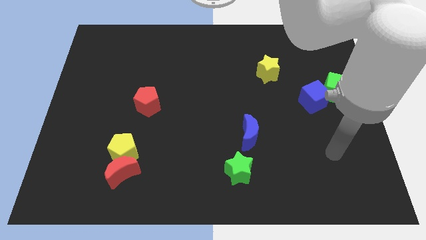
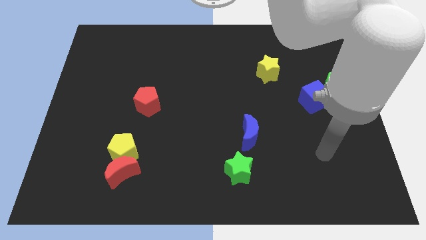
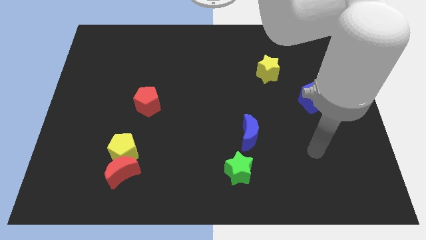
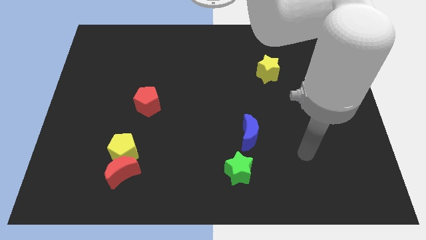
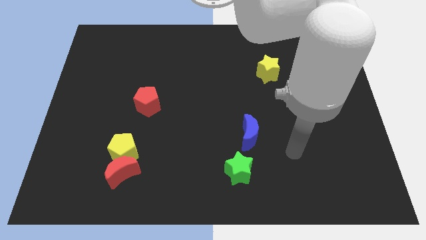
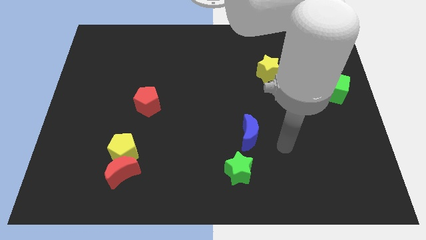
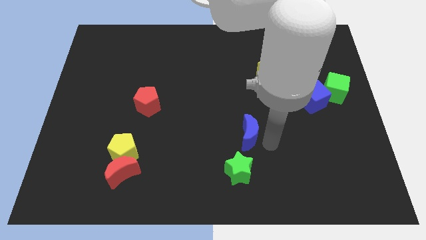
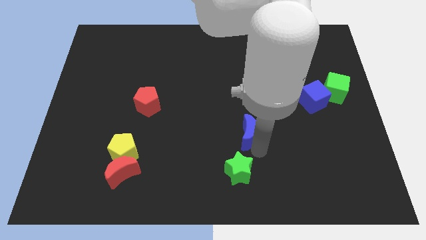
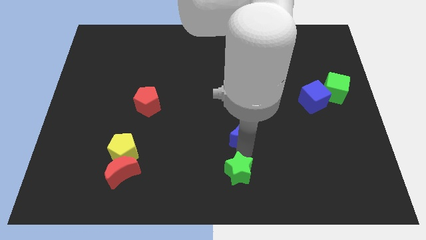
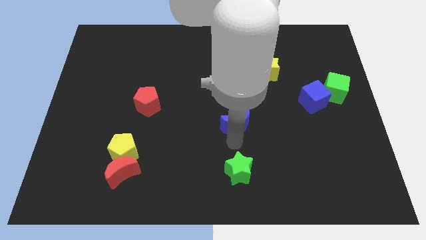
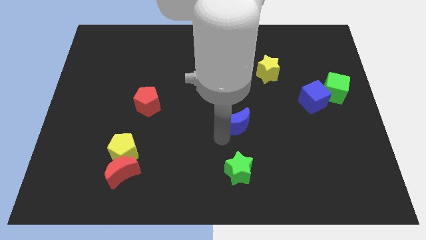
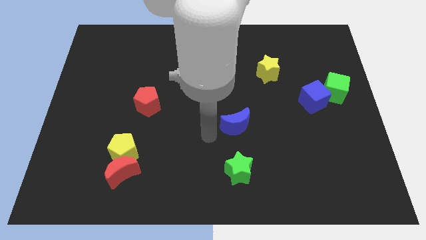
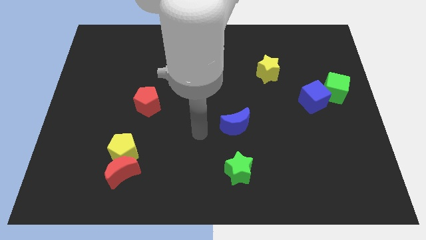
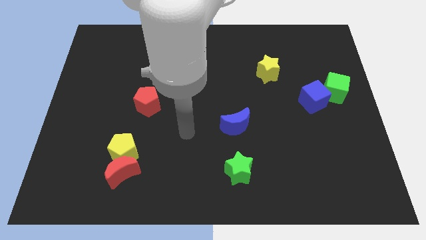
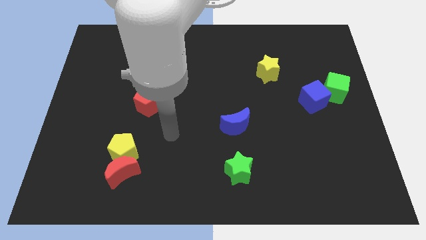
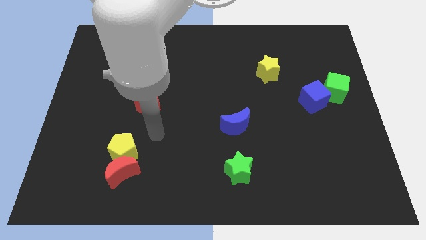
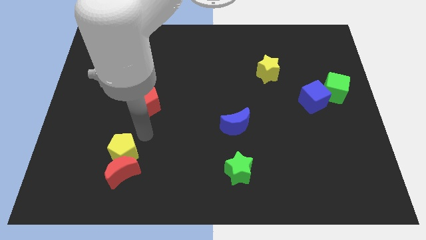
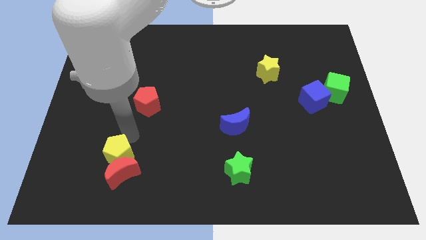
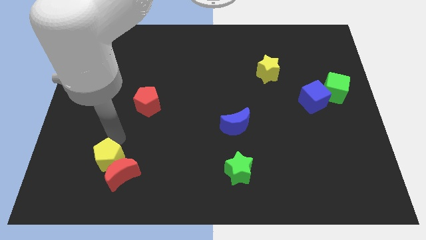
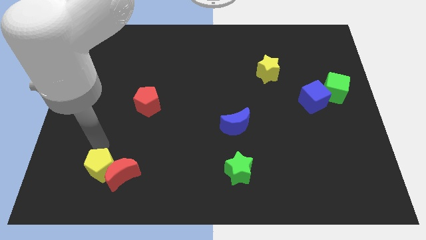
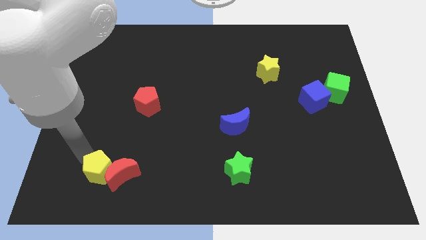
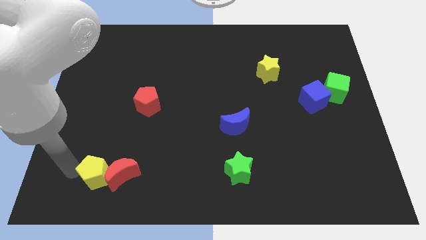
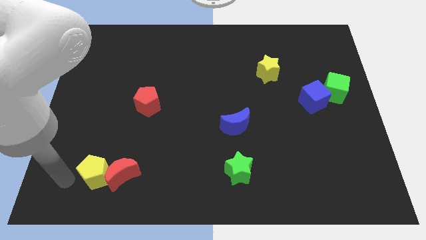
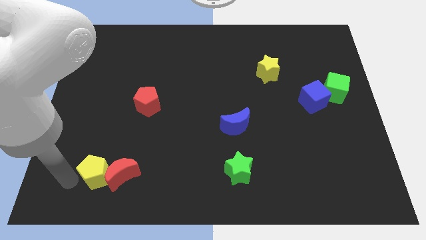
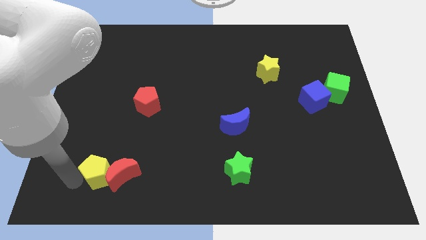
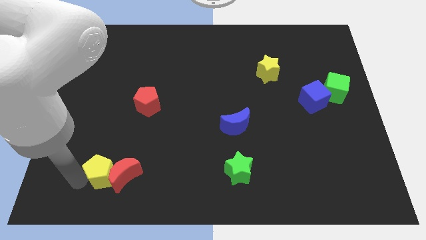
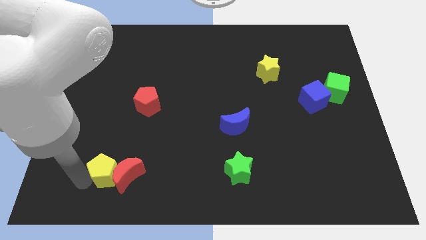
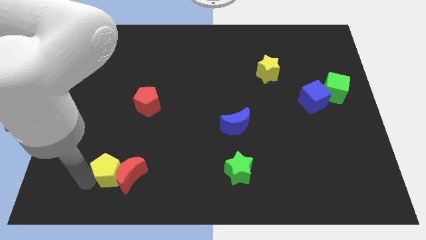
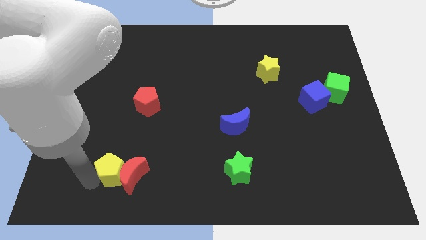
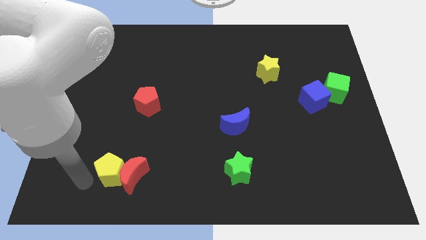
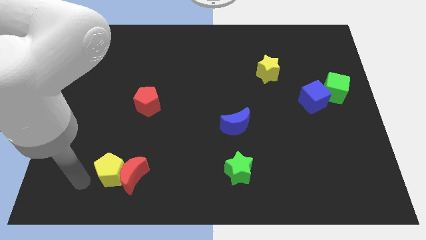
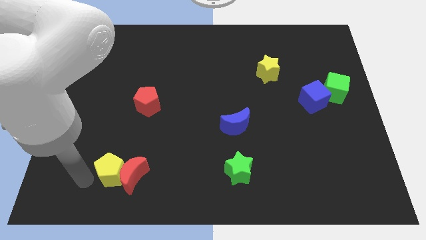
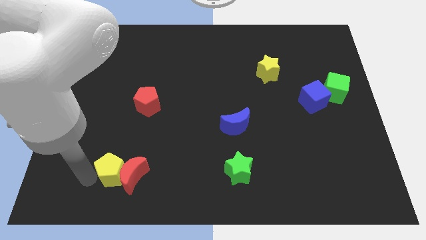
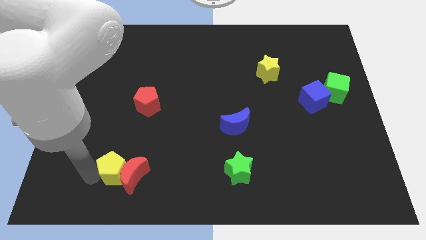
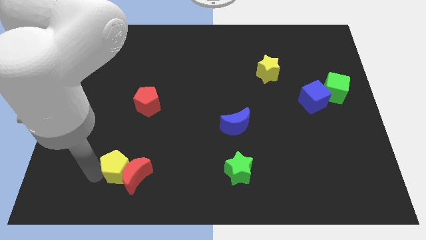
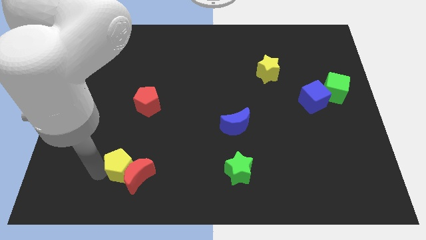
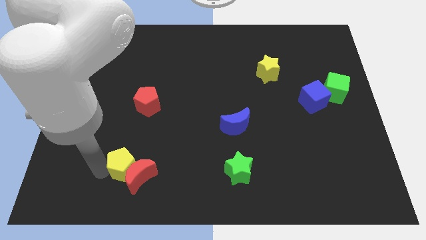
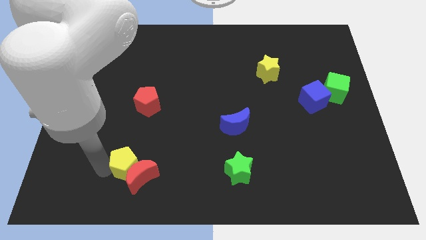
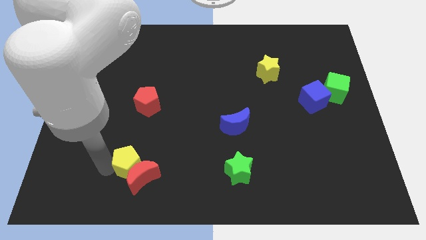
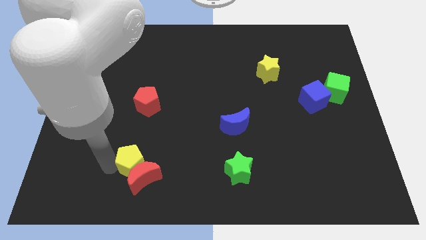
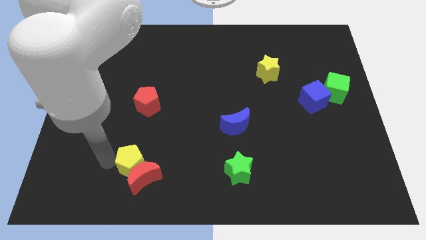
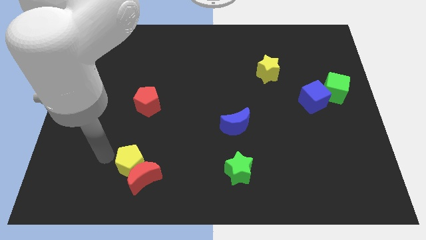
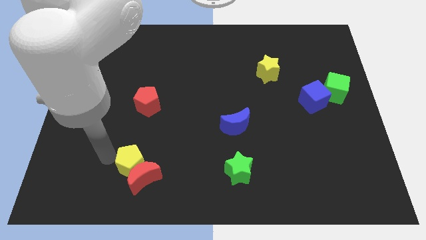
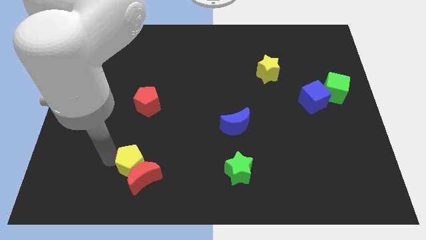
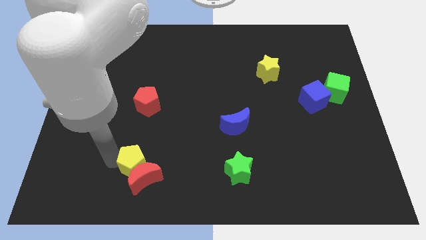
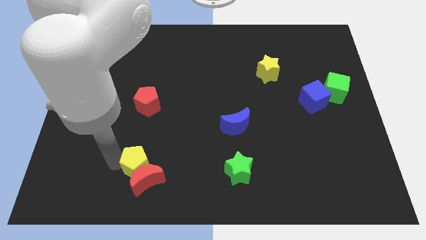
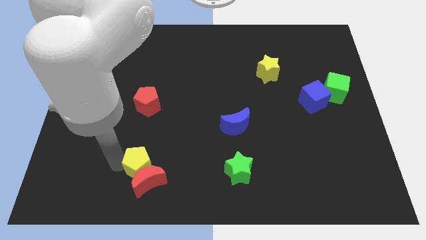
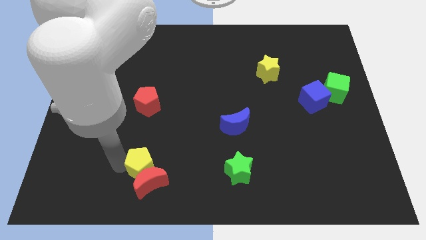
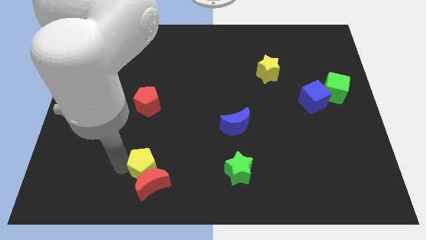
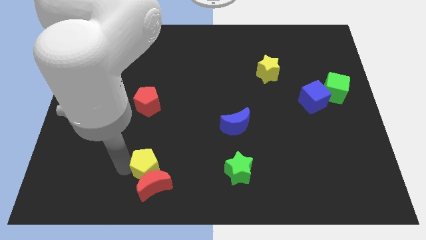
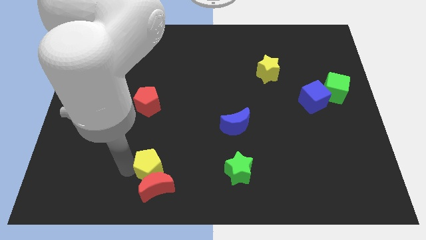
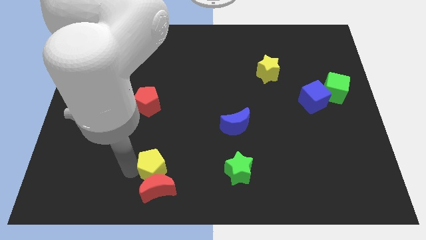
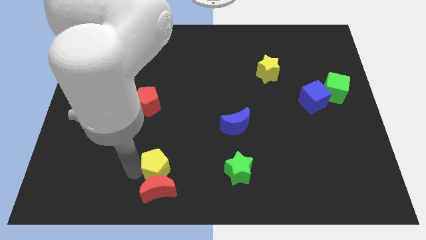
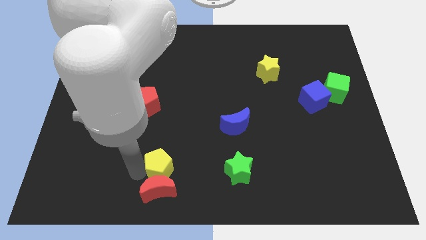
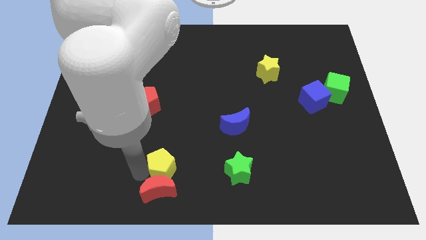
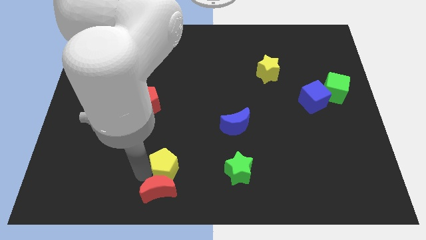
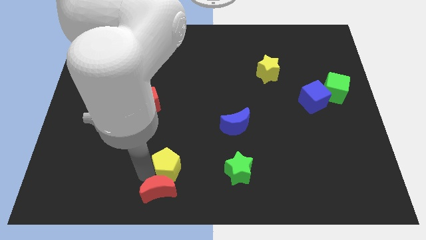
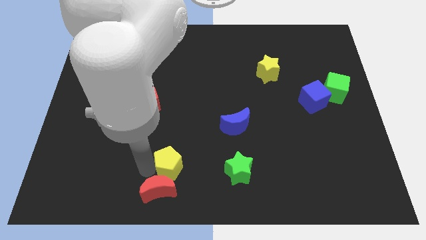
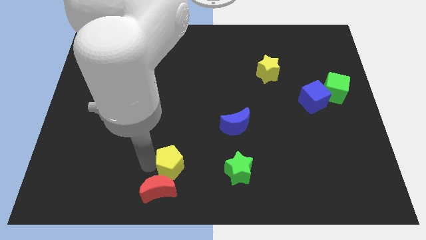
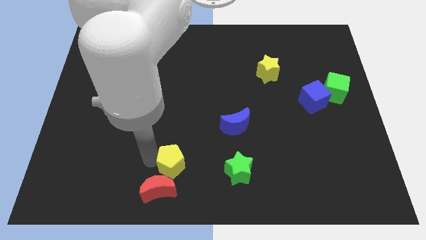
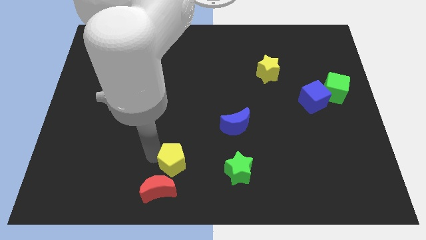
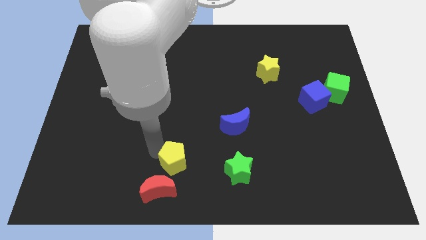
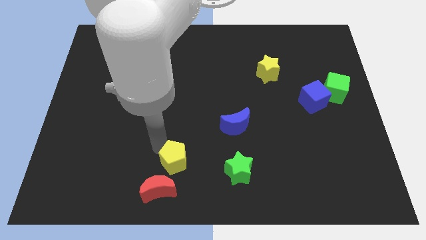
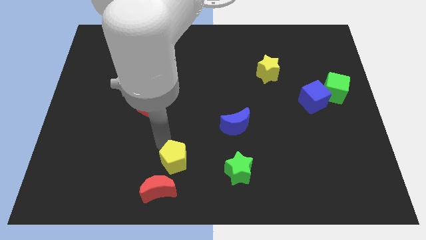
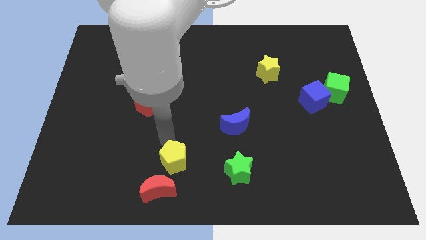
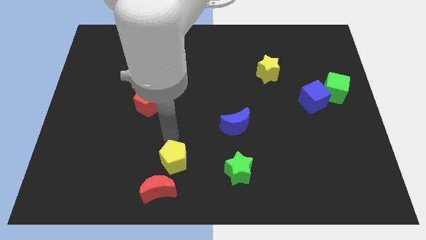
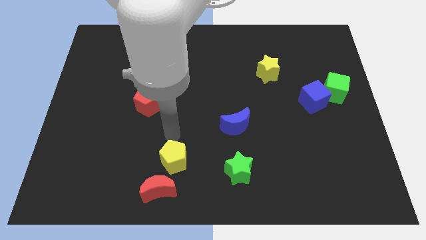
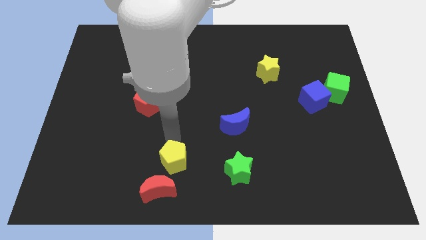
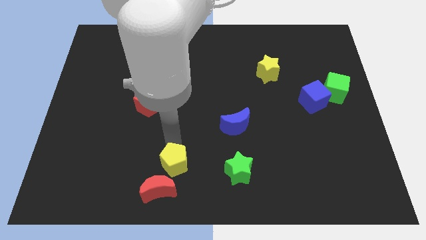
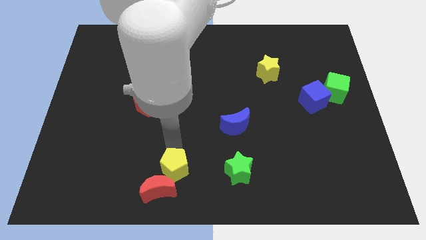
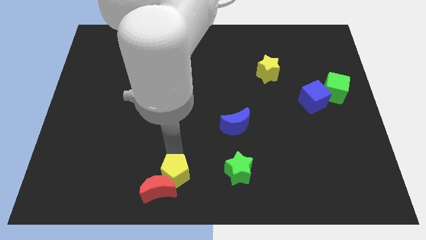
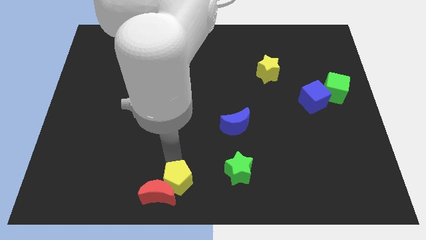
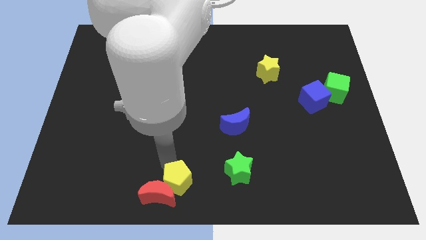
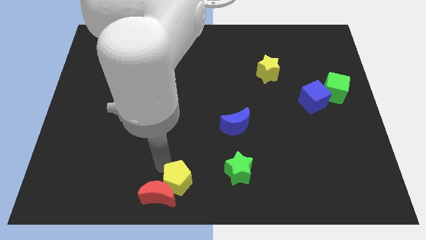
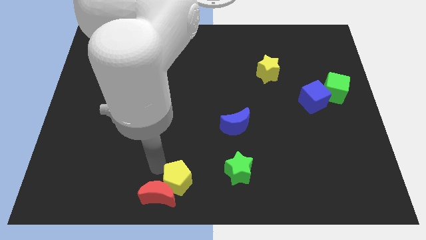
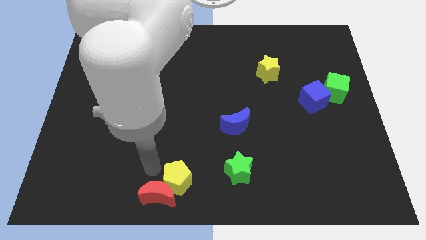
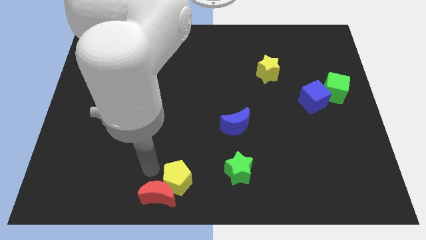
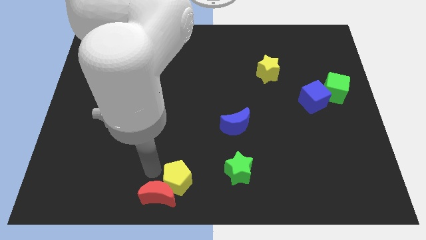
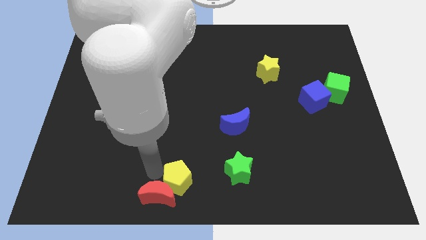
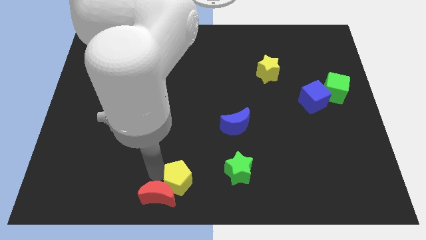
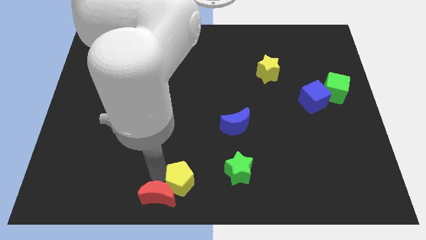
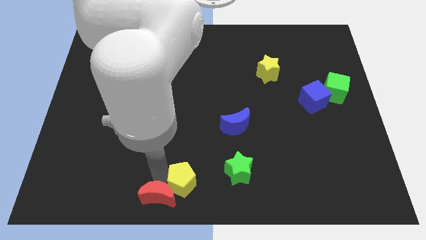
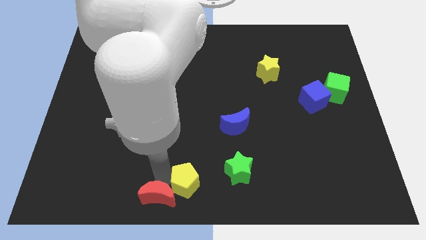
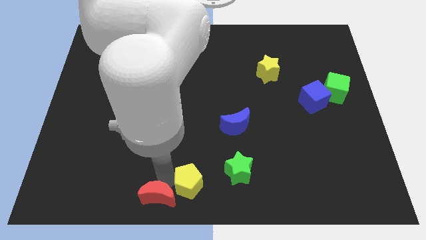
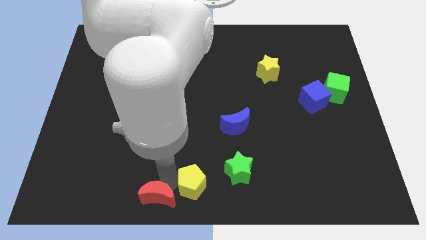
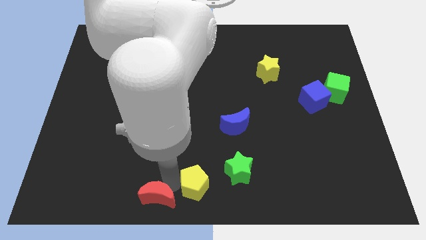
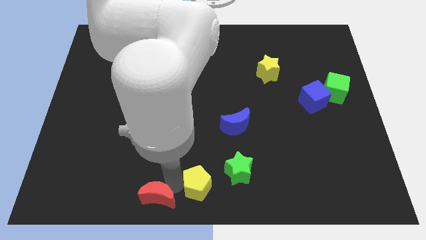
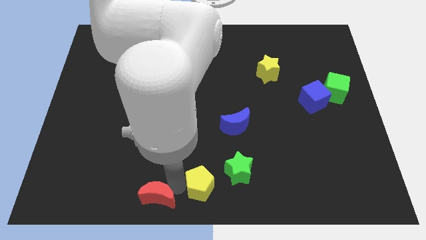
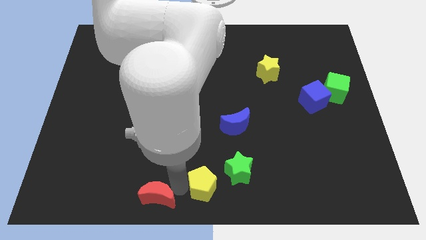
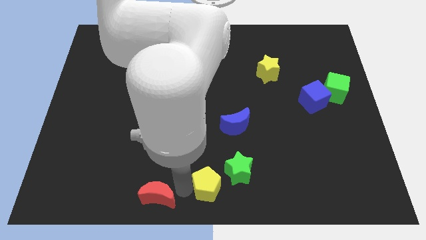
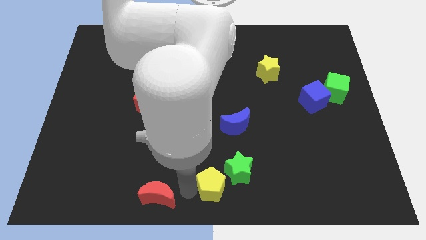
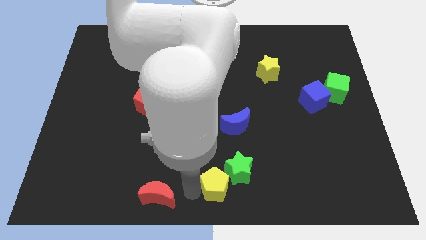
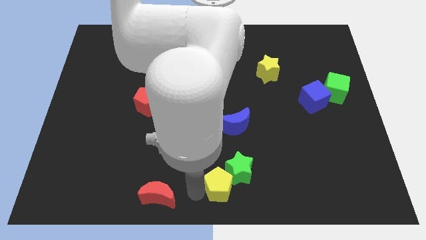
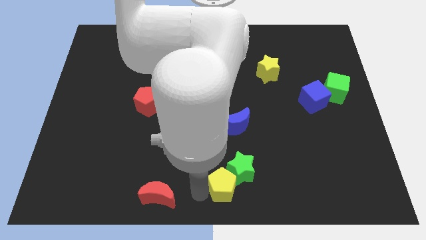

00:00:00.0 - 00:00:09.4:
push the yellow pentagon below the blue moon
